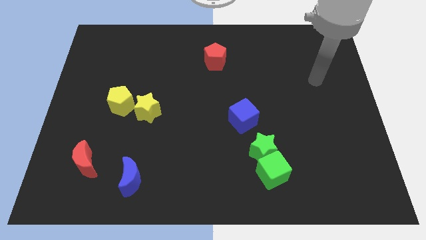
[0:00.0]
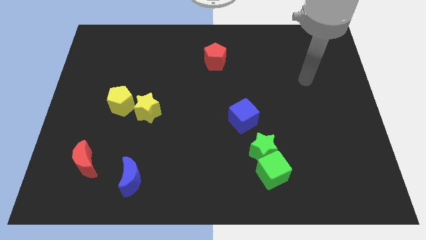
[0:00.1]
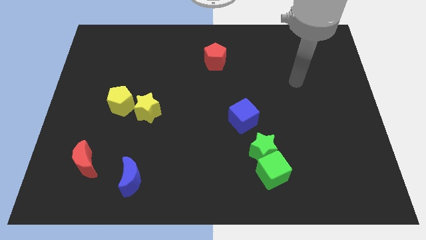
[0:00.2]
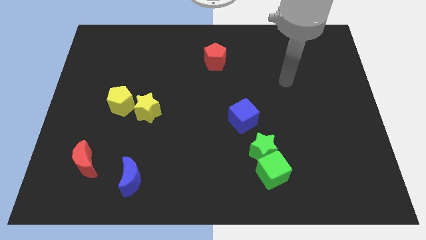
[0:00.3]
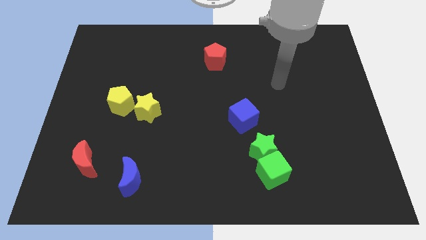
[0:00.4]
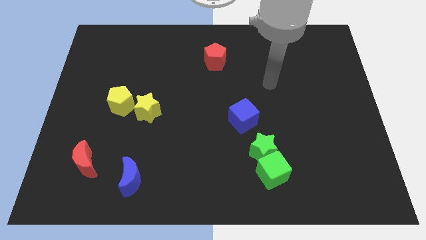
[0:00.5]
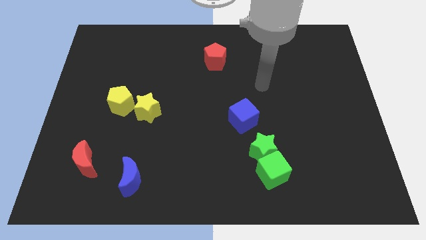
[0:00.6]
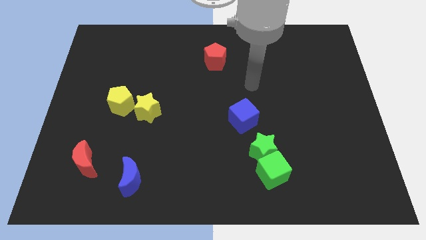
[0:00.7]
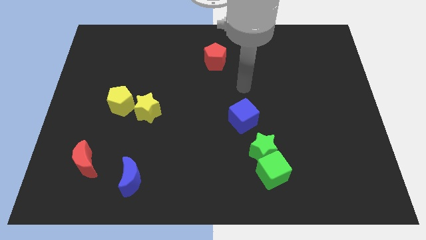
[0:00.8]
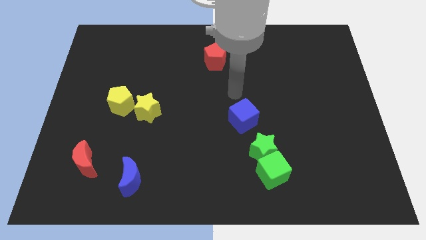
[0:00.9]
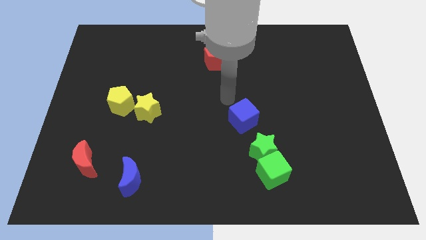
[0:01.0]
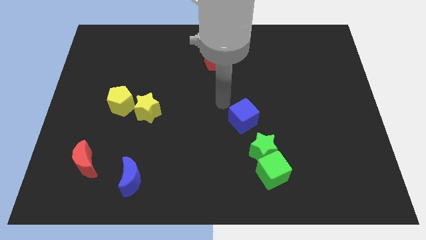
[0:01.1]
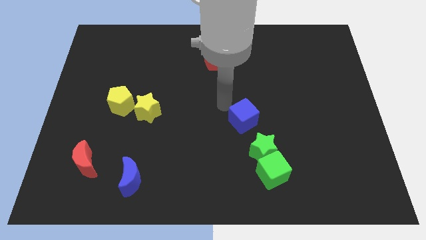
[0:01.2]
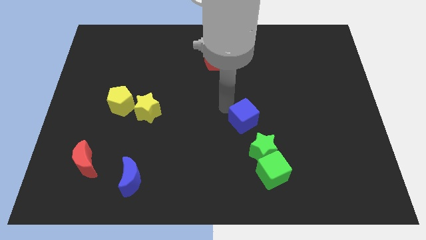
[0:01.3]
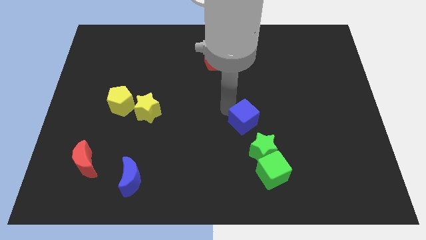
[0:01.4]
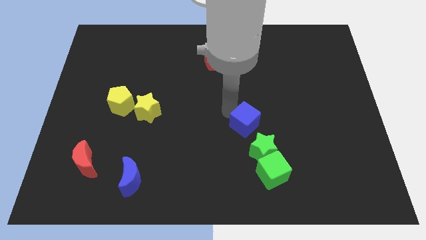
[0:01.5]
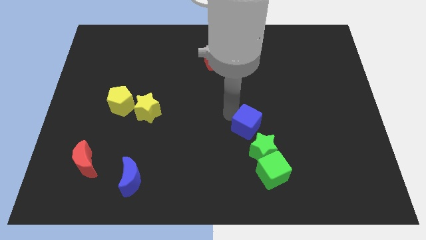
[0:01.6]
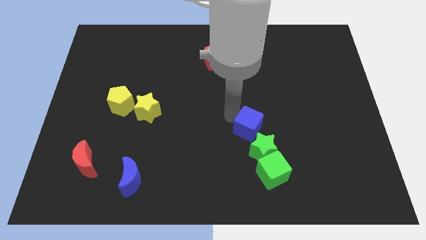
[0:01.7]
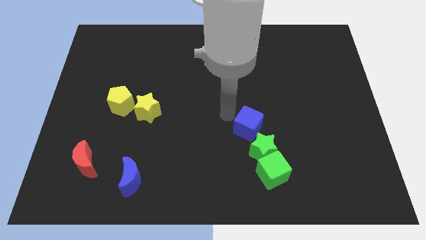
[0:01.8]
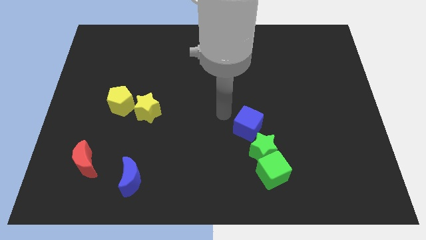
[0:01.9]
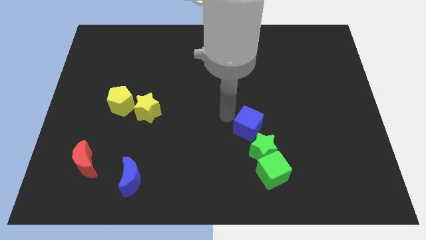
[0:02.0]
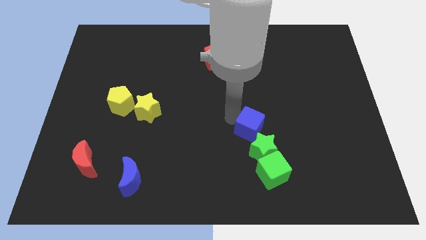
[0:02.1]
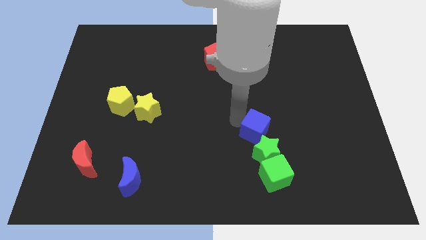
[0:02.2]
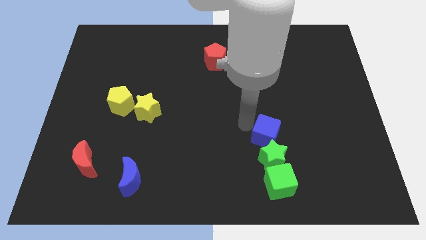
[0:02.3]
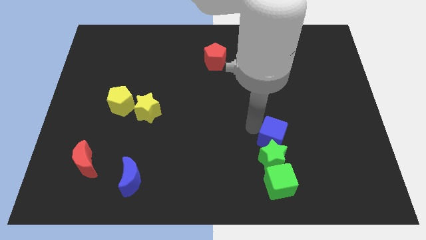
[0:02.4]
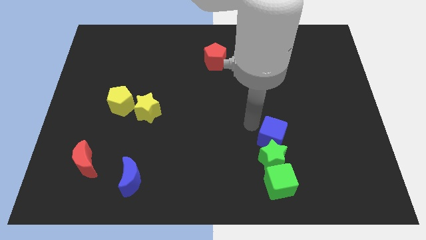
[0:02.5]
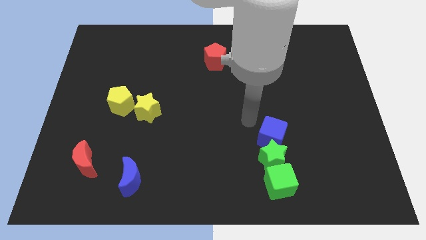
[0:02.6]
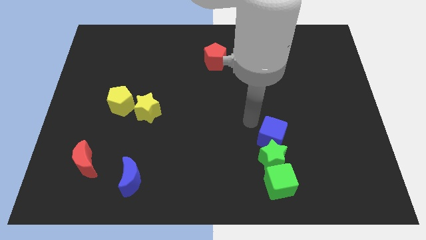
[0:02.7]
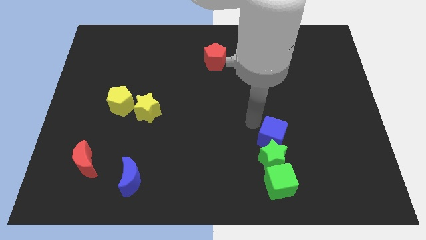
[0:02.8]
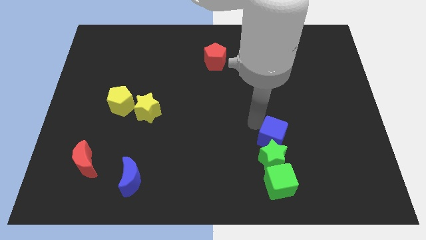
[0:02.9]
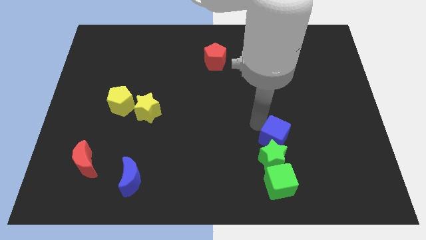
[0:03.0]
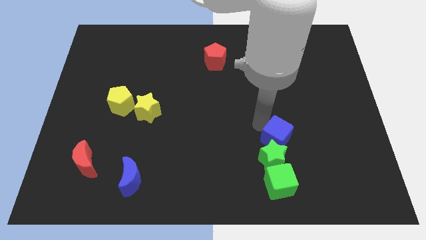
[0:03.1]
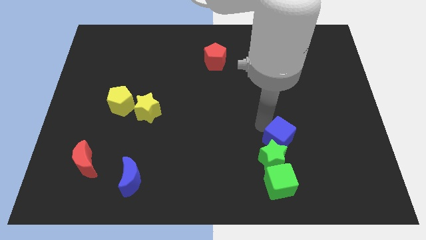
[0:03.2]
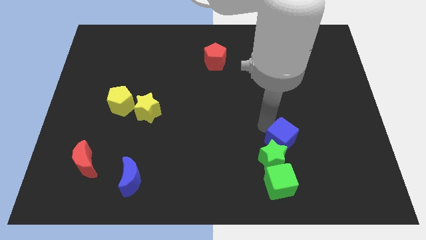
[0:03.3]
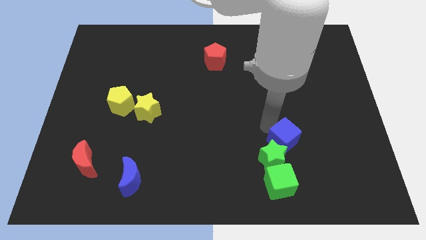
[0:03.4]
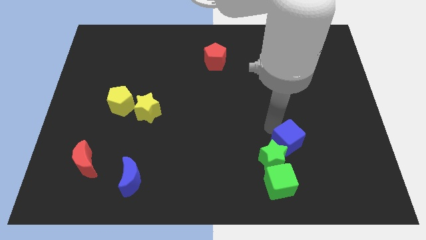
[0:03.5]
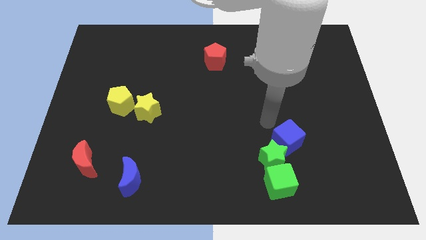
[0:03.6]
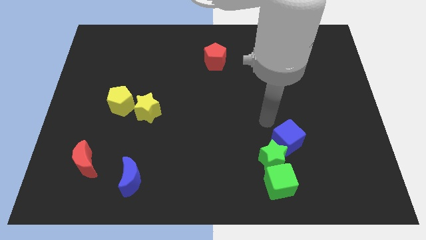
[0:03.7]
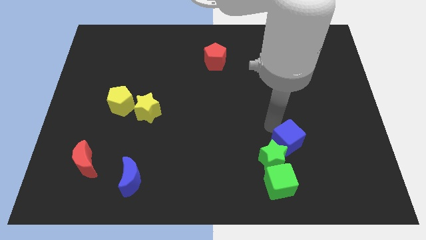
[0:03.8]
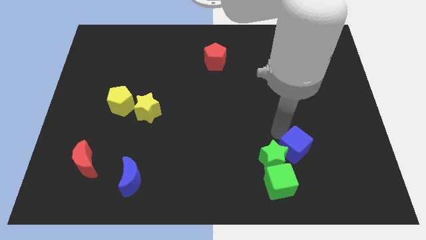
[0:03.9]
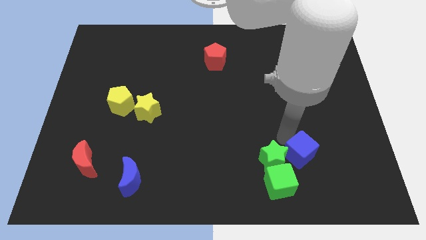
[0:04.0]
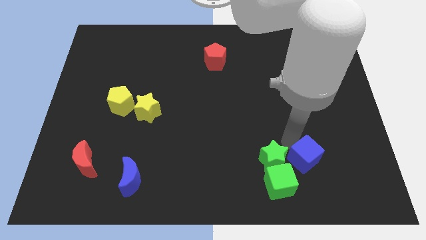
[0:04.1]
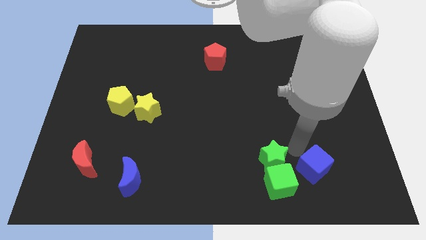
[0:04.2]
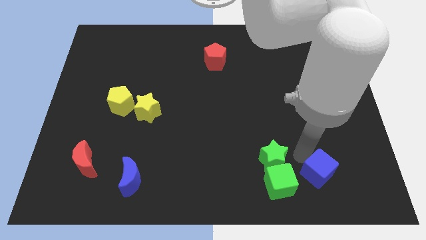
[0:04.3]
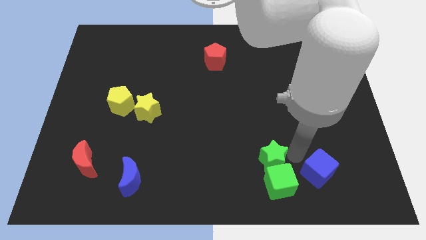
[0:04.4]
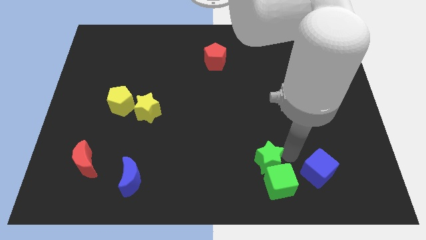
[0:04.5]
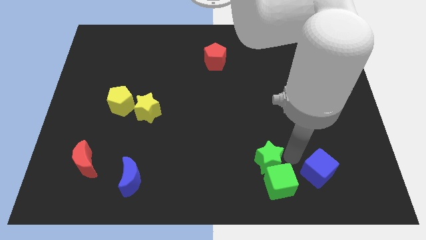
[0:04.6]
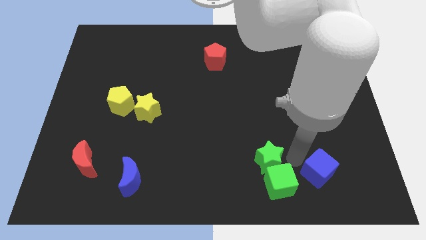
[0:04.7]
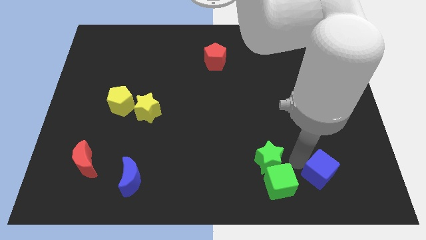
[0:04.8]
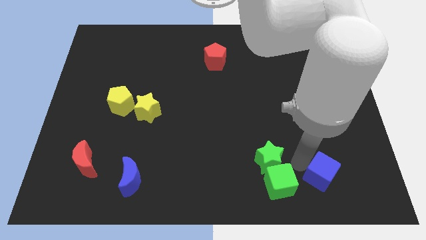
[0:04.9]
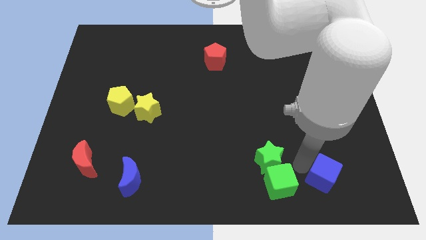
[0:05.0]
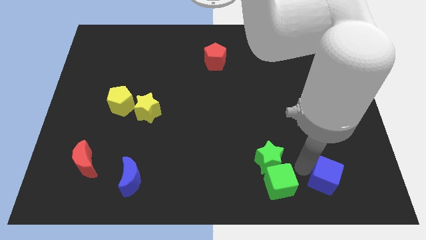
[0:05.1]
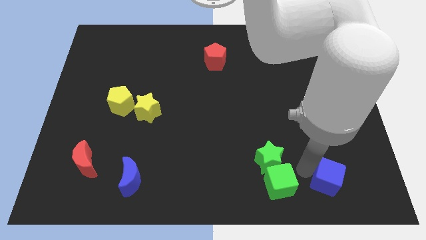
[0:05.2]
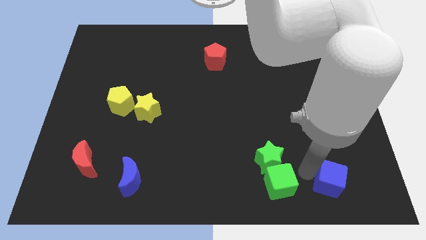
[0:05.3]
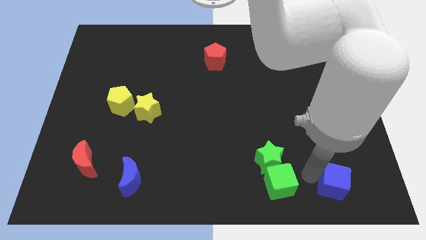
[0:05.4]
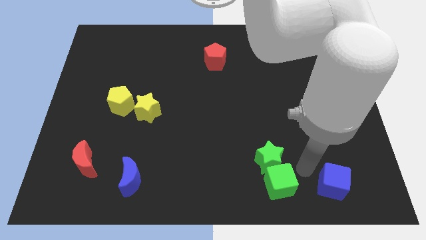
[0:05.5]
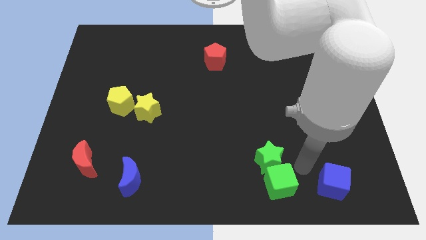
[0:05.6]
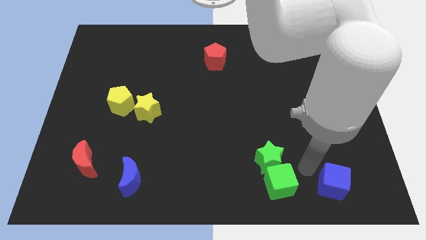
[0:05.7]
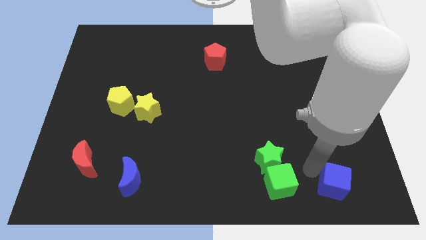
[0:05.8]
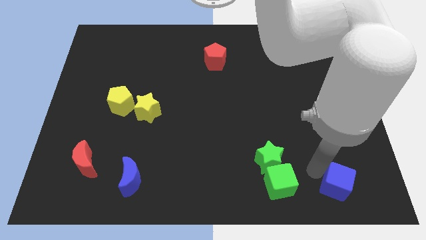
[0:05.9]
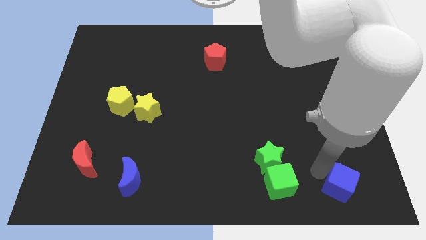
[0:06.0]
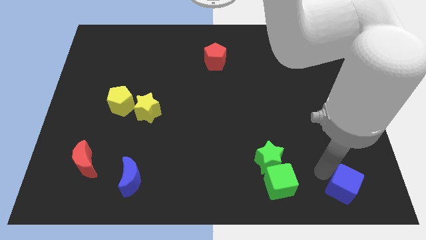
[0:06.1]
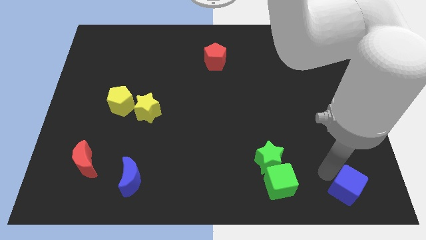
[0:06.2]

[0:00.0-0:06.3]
move the blue cube to the lower right corner

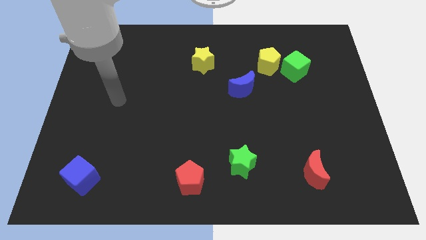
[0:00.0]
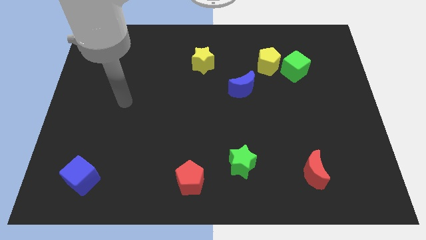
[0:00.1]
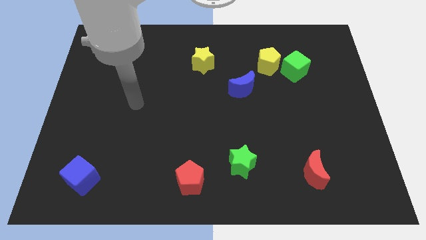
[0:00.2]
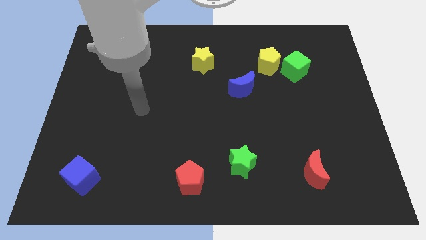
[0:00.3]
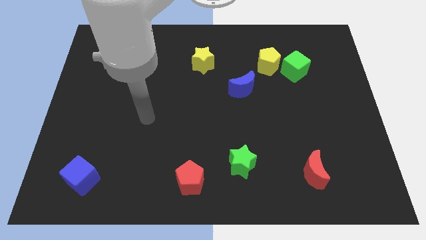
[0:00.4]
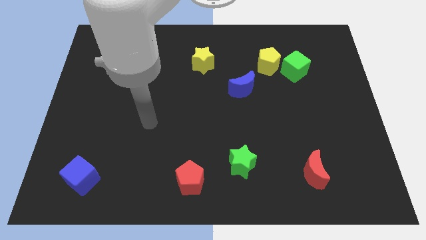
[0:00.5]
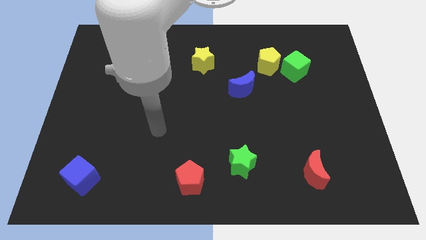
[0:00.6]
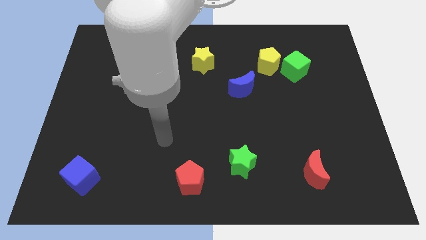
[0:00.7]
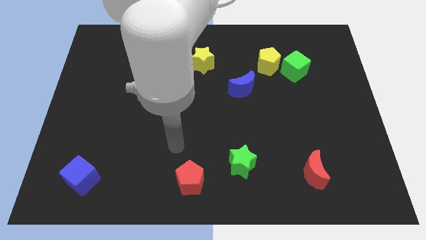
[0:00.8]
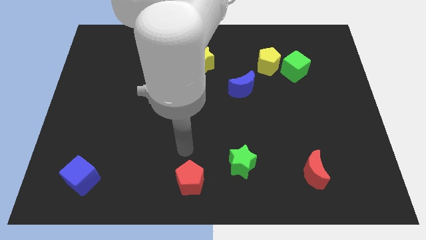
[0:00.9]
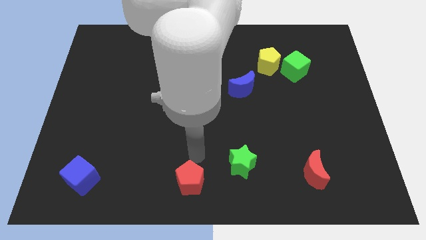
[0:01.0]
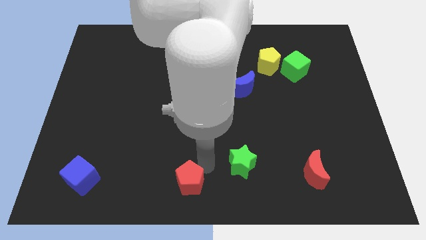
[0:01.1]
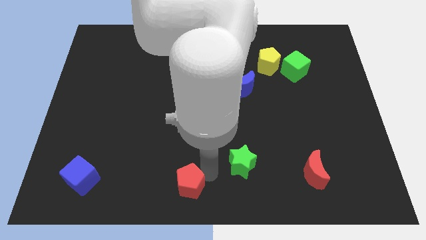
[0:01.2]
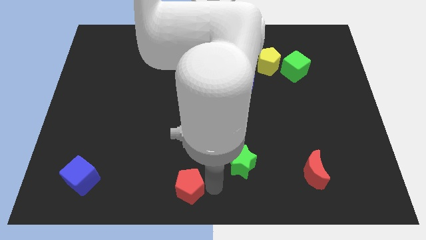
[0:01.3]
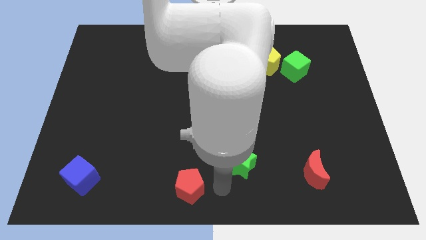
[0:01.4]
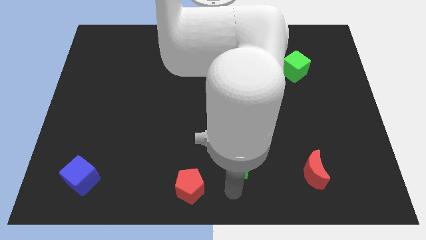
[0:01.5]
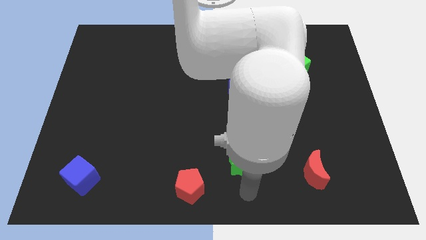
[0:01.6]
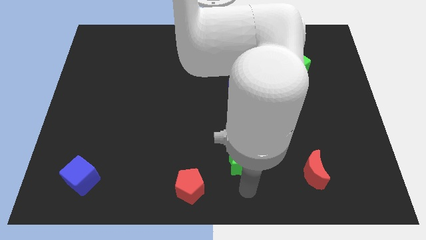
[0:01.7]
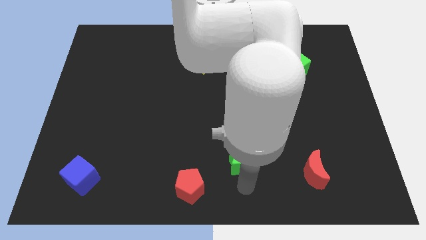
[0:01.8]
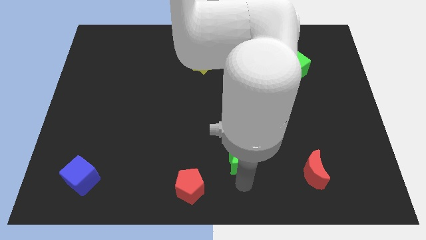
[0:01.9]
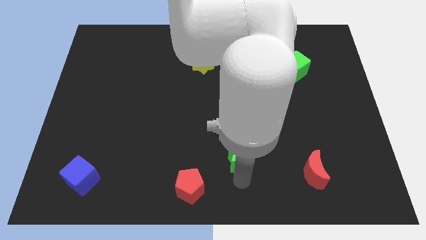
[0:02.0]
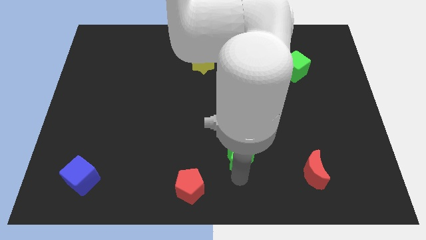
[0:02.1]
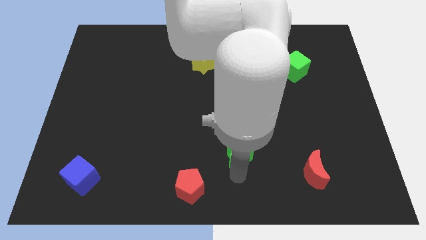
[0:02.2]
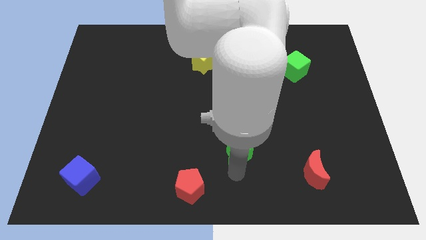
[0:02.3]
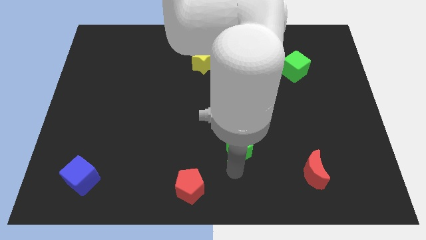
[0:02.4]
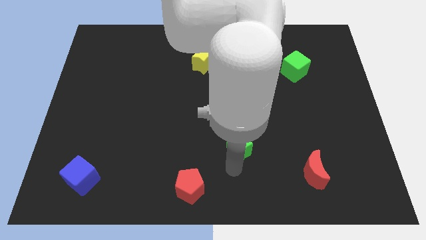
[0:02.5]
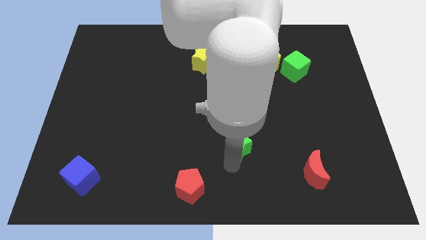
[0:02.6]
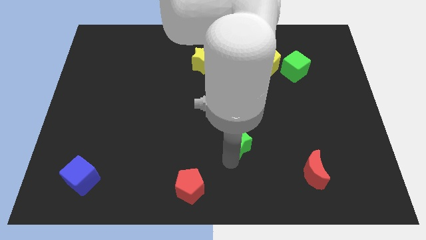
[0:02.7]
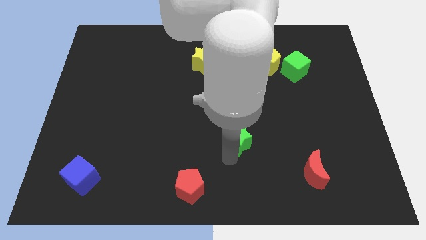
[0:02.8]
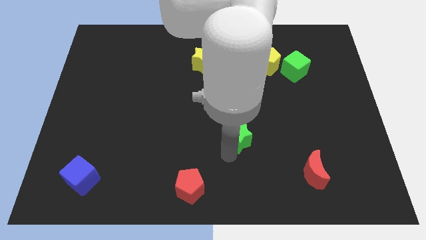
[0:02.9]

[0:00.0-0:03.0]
push the green star to the center
